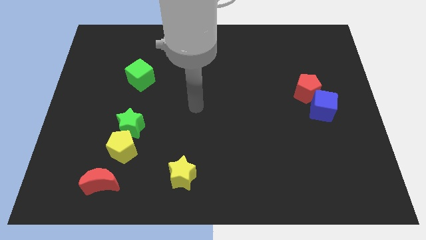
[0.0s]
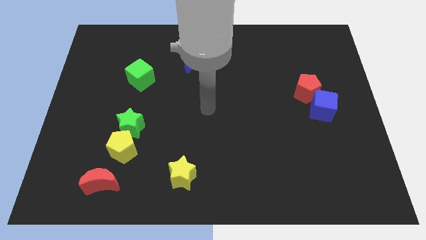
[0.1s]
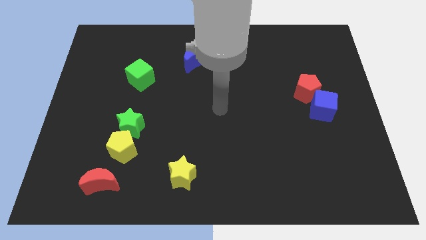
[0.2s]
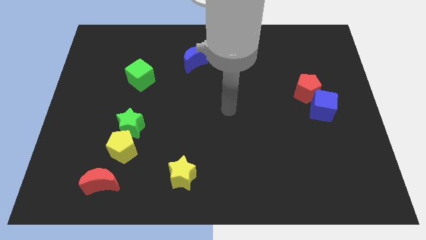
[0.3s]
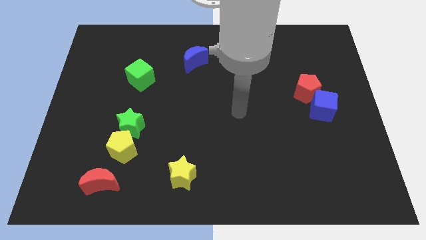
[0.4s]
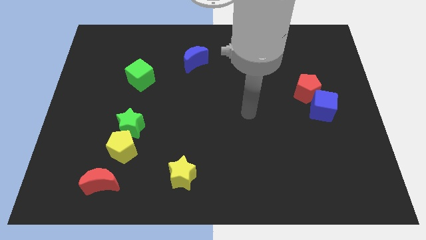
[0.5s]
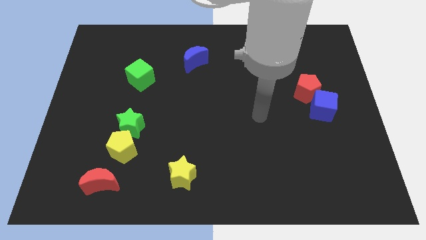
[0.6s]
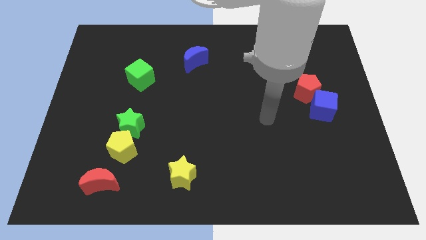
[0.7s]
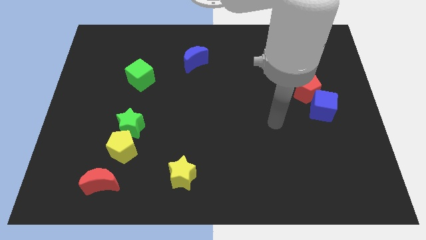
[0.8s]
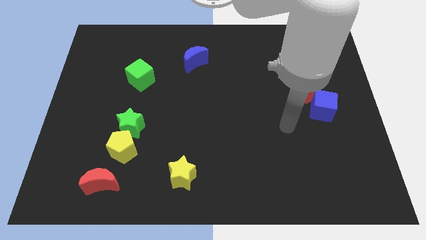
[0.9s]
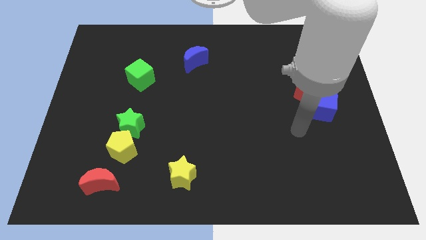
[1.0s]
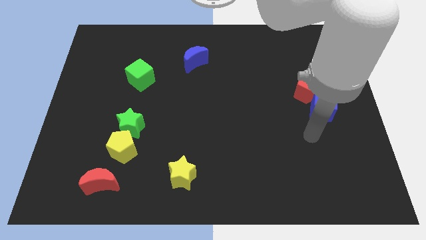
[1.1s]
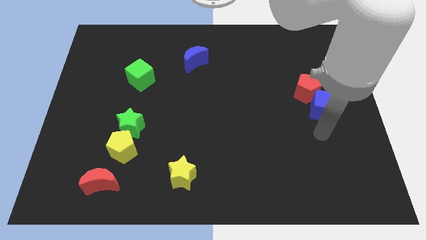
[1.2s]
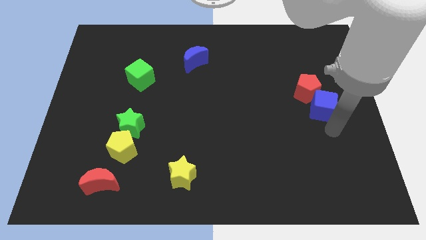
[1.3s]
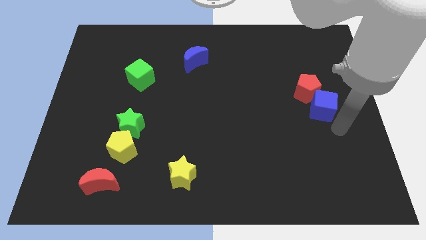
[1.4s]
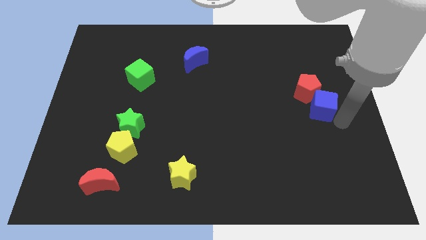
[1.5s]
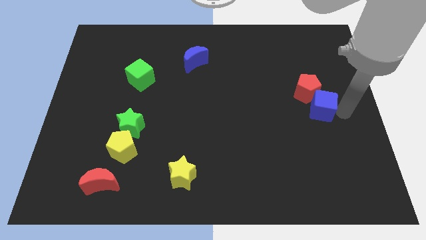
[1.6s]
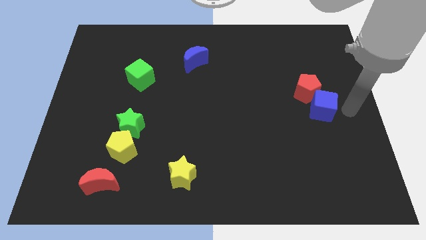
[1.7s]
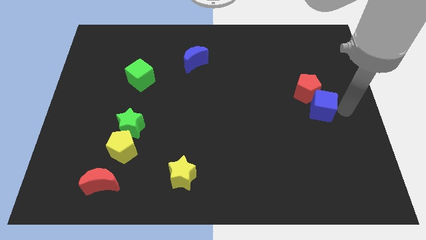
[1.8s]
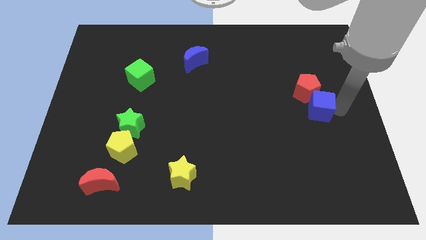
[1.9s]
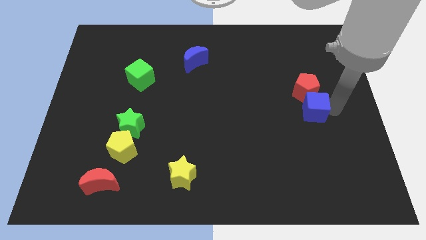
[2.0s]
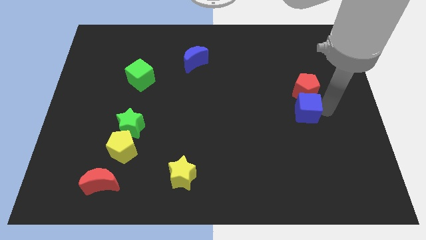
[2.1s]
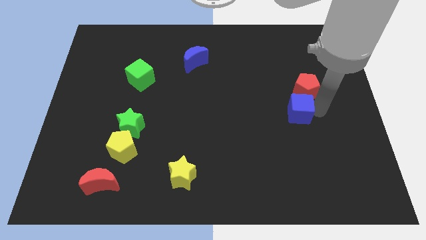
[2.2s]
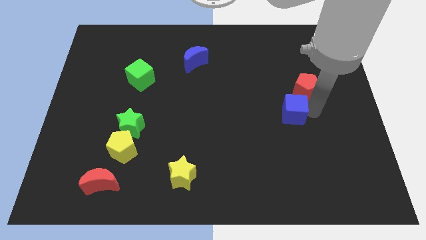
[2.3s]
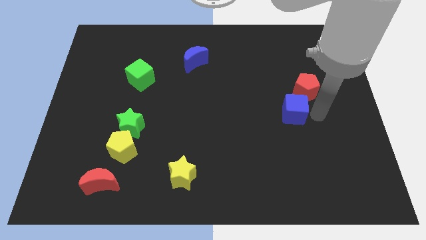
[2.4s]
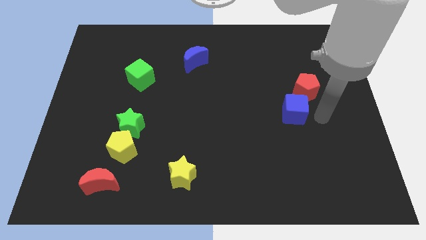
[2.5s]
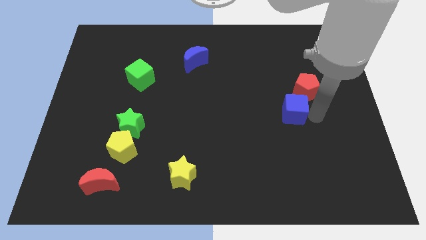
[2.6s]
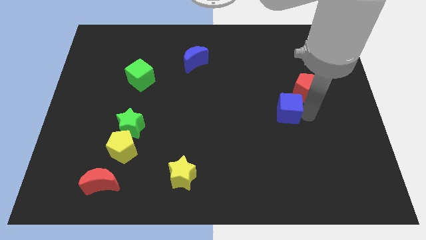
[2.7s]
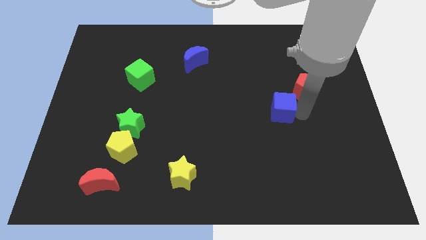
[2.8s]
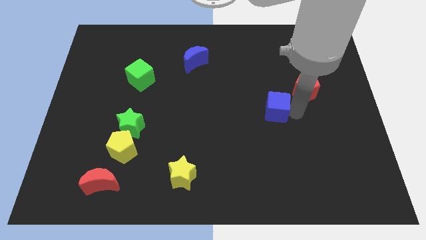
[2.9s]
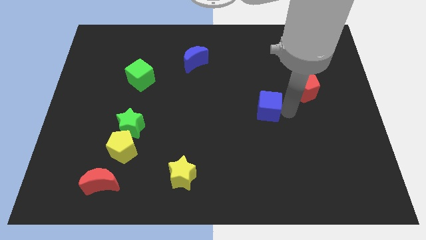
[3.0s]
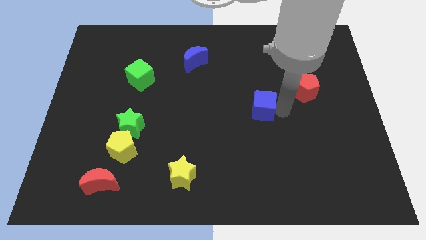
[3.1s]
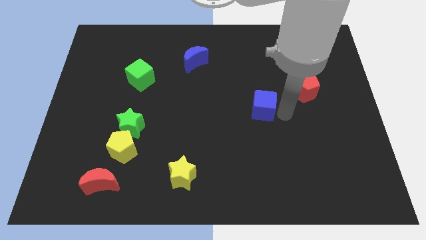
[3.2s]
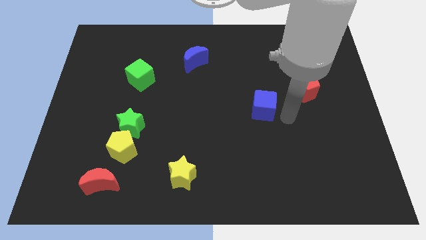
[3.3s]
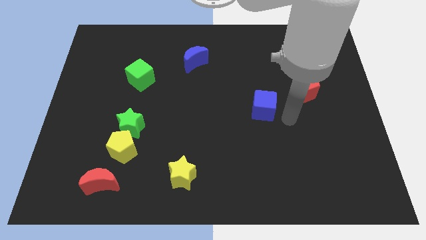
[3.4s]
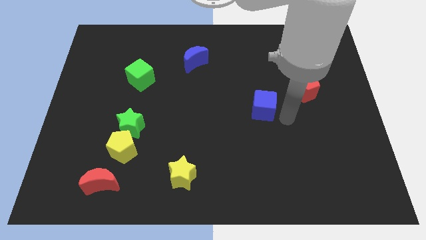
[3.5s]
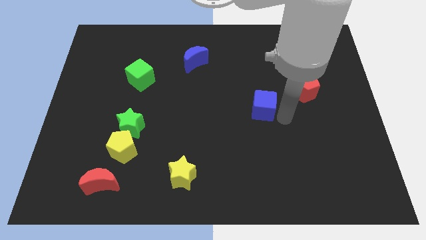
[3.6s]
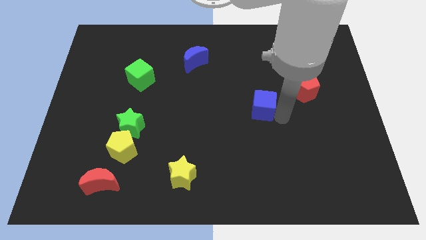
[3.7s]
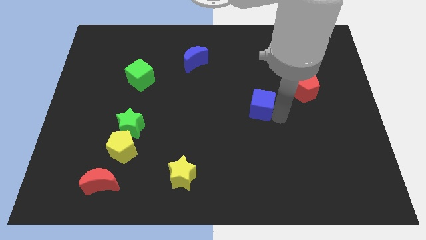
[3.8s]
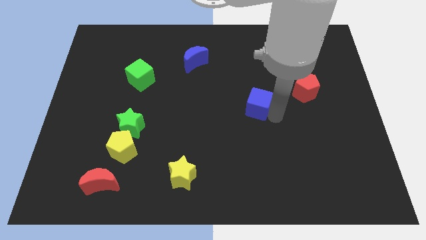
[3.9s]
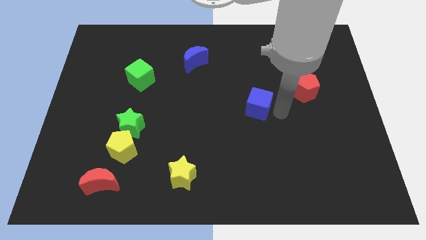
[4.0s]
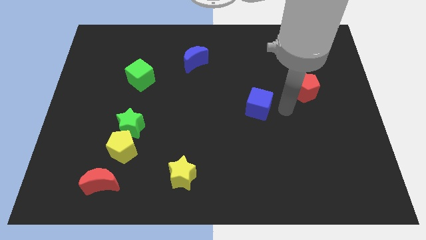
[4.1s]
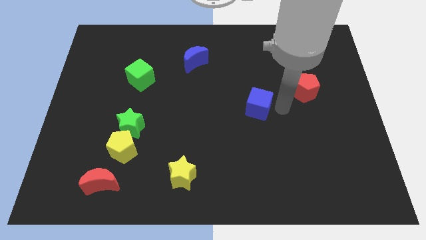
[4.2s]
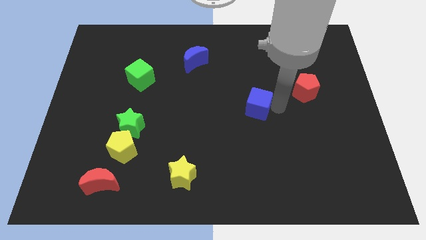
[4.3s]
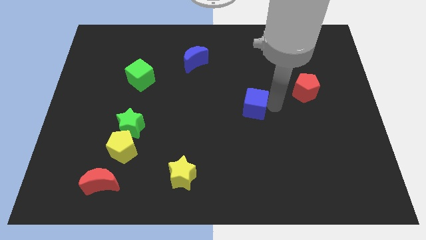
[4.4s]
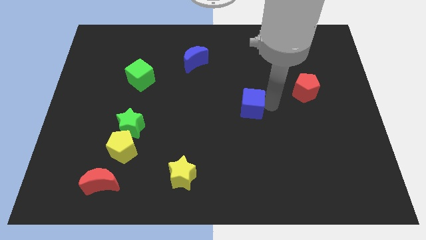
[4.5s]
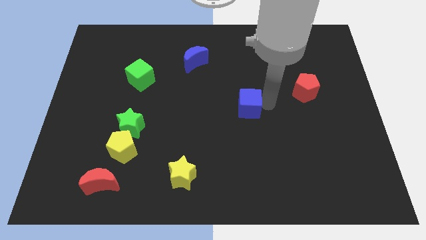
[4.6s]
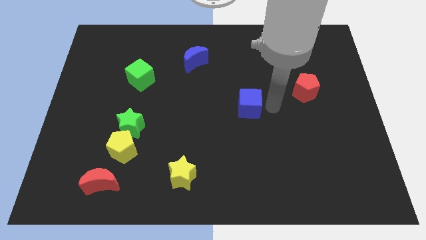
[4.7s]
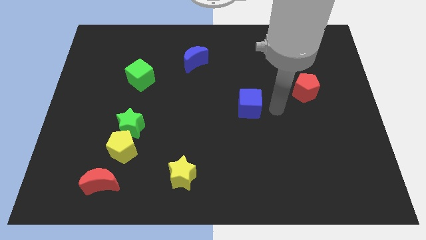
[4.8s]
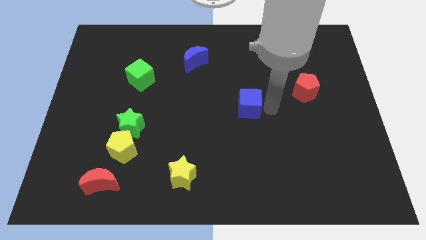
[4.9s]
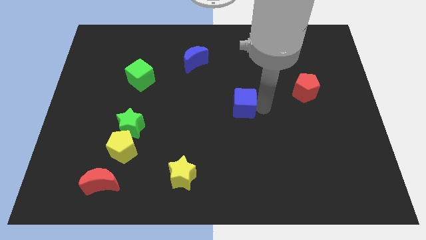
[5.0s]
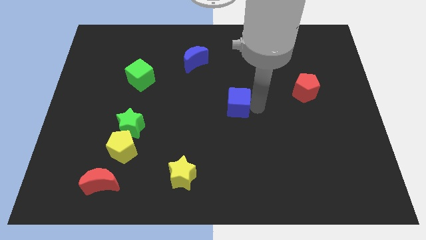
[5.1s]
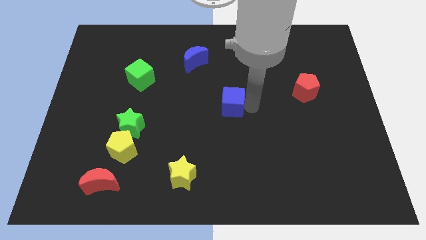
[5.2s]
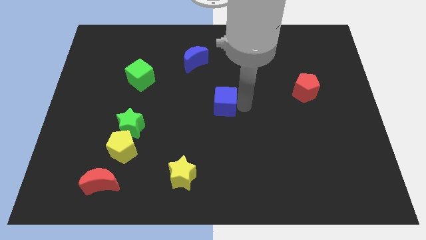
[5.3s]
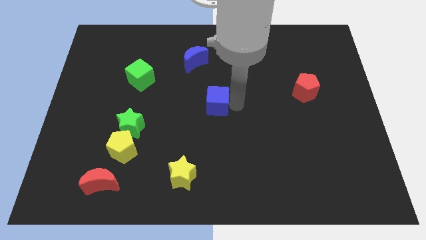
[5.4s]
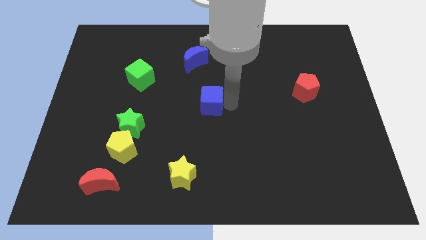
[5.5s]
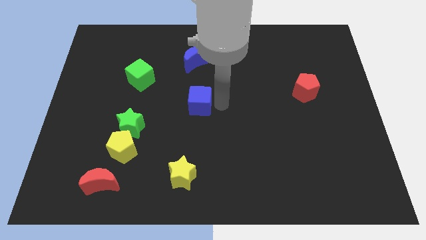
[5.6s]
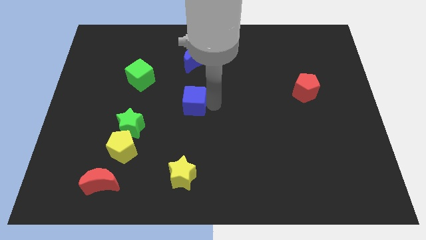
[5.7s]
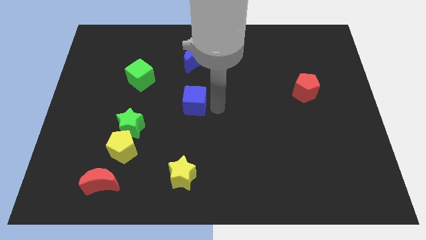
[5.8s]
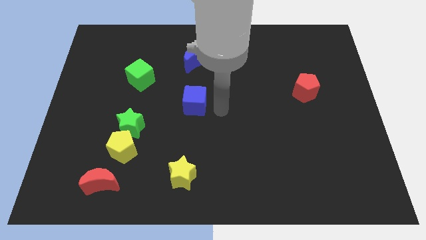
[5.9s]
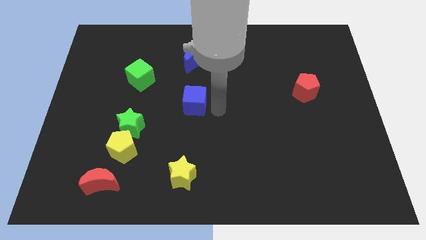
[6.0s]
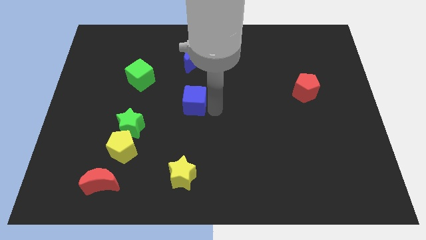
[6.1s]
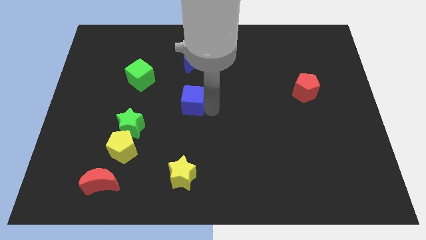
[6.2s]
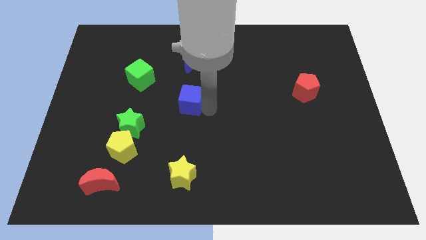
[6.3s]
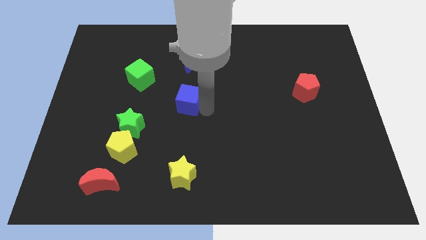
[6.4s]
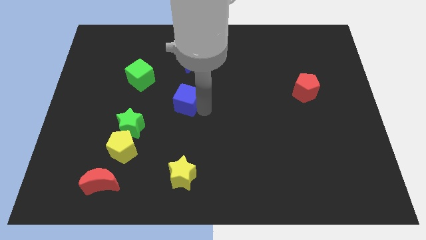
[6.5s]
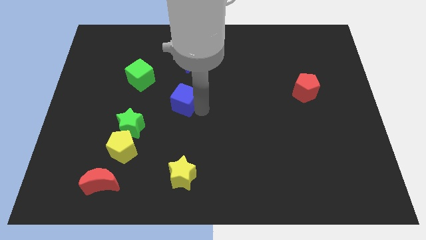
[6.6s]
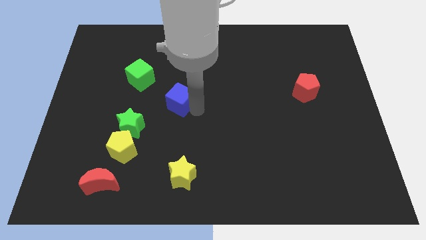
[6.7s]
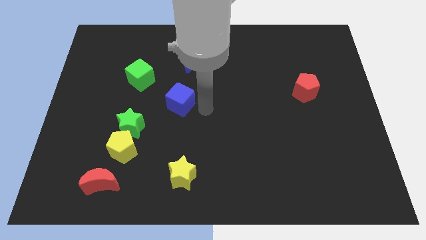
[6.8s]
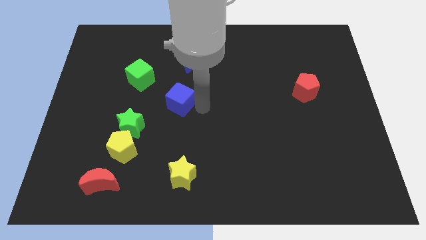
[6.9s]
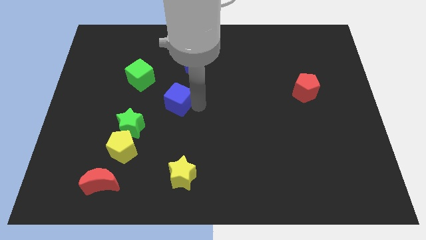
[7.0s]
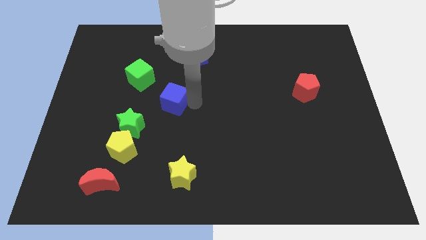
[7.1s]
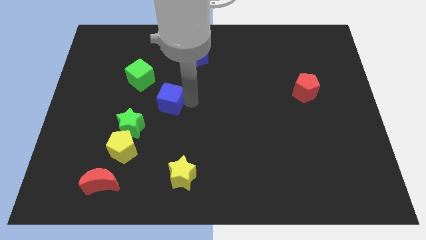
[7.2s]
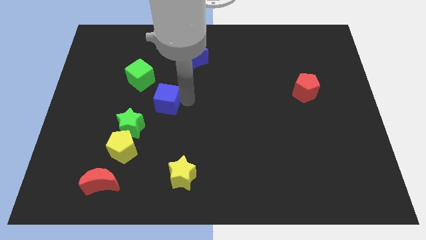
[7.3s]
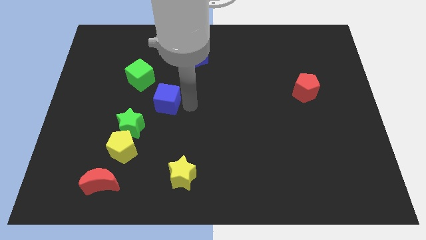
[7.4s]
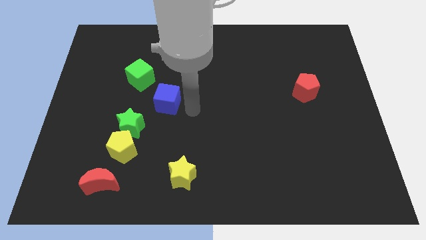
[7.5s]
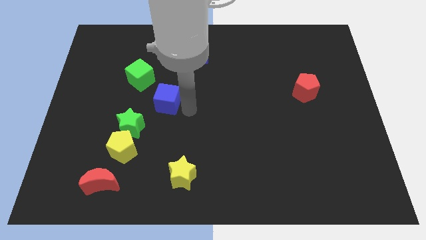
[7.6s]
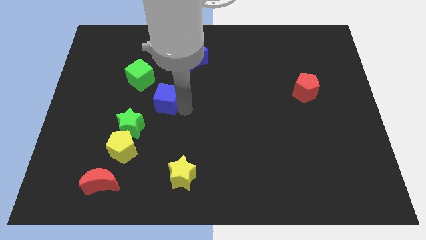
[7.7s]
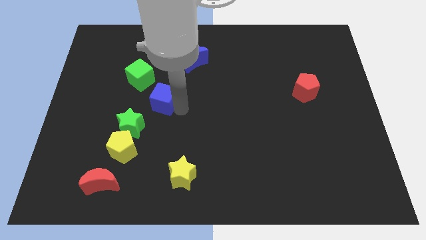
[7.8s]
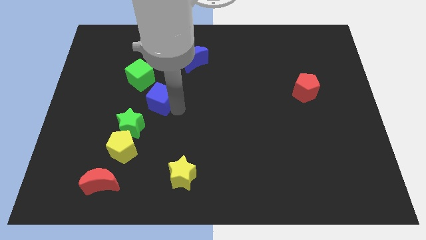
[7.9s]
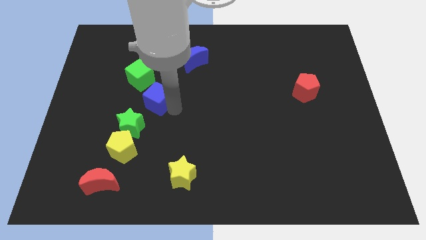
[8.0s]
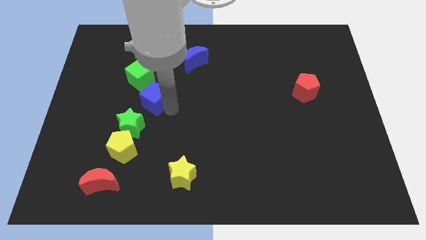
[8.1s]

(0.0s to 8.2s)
slide the blue cube to the top side of the green star
